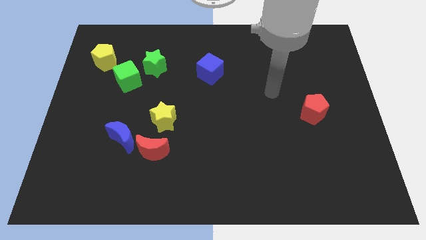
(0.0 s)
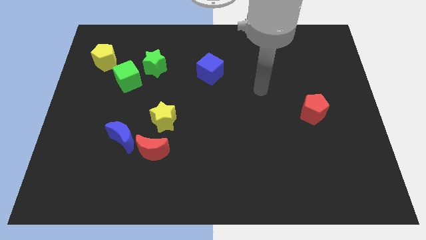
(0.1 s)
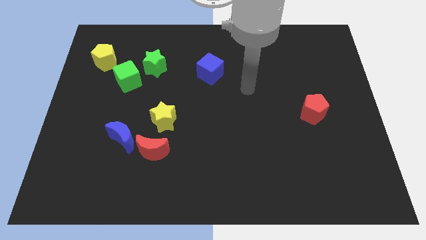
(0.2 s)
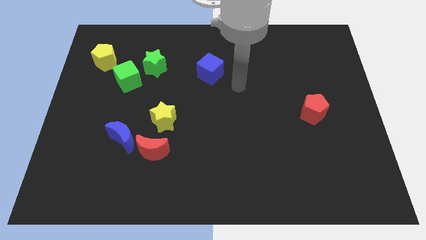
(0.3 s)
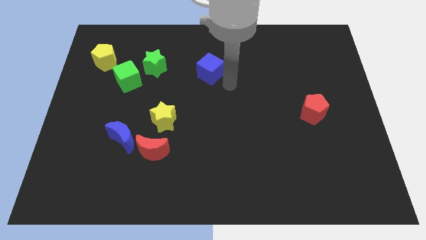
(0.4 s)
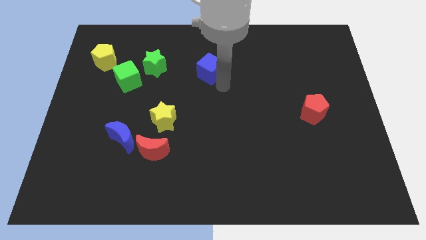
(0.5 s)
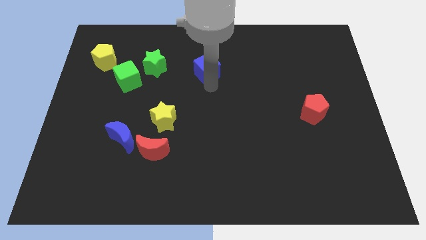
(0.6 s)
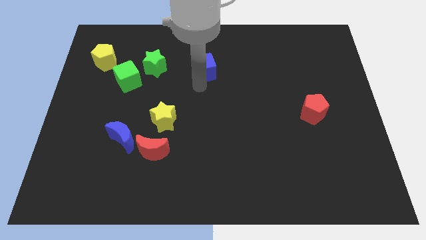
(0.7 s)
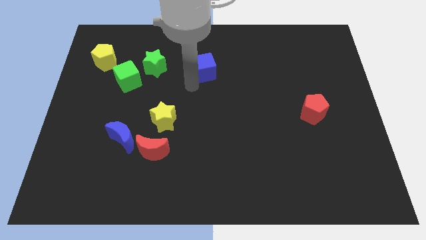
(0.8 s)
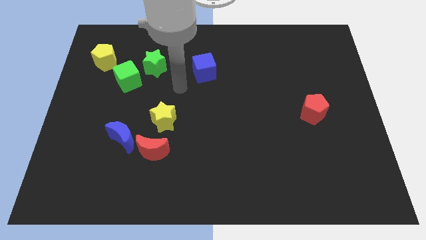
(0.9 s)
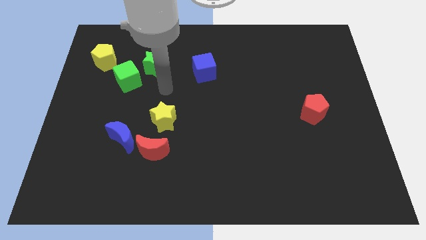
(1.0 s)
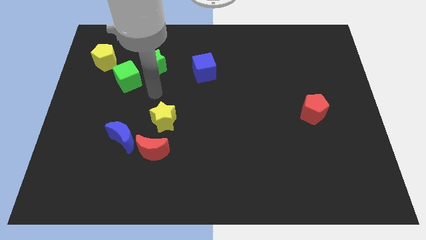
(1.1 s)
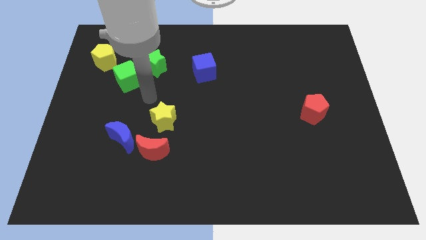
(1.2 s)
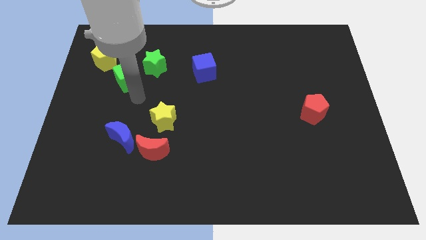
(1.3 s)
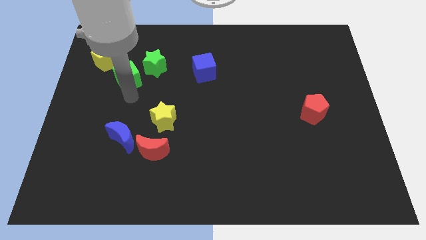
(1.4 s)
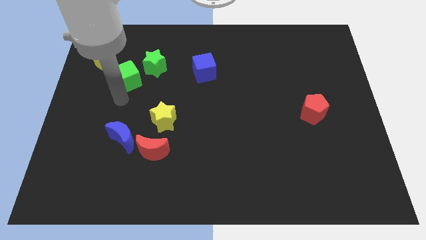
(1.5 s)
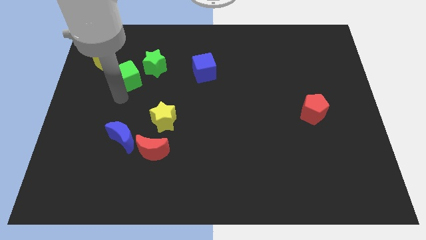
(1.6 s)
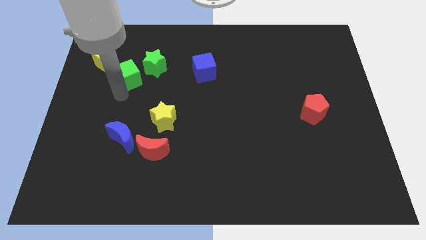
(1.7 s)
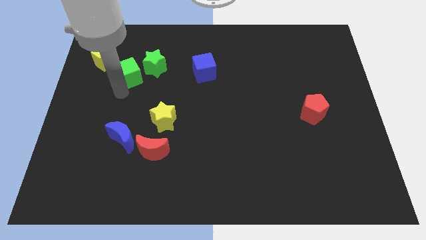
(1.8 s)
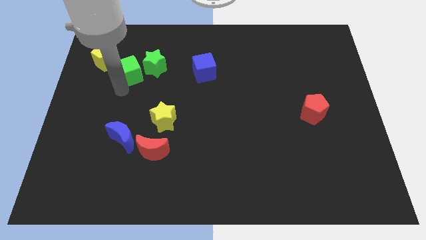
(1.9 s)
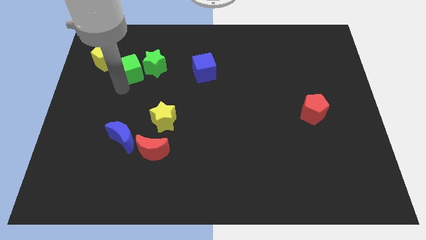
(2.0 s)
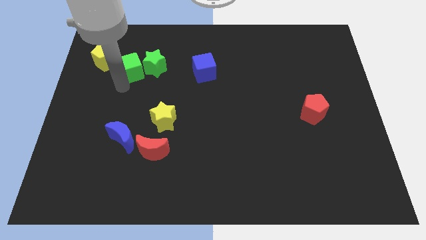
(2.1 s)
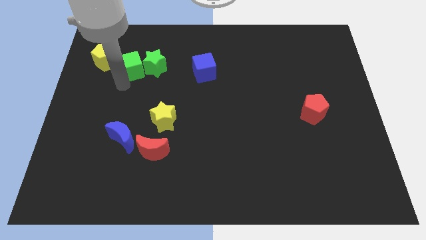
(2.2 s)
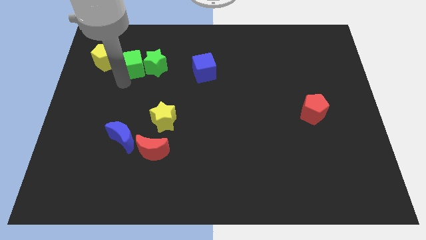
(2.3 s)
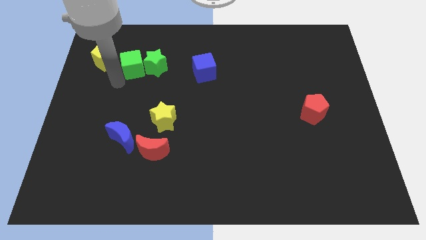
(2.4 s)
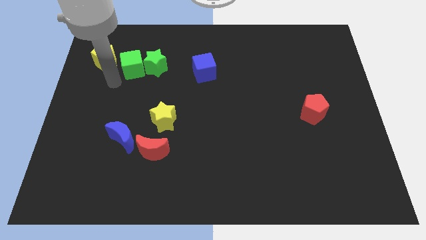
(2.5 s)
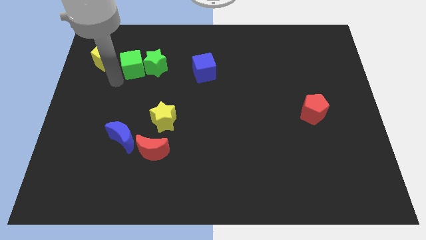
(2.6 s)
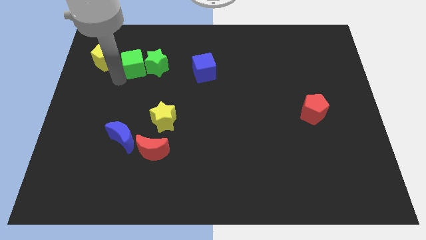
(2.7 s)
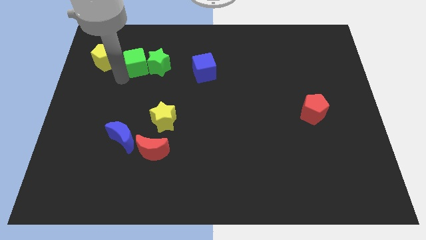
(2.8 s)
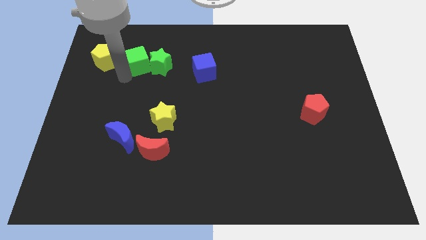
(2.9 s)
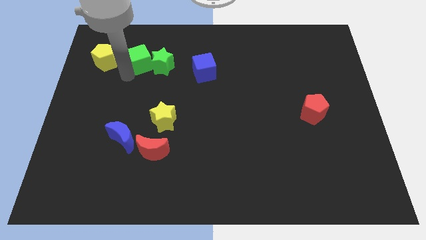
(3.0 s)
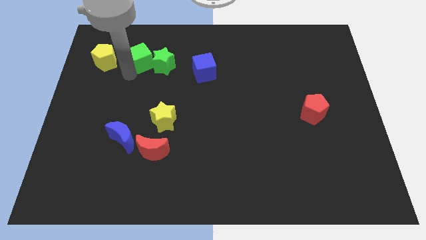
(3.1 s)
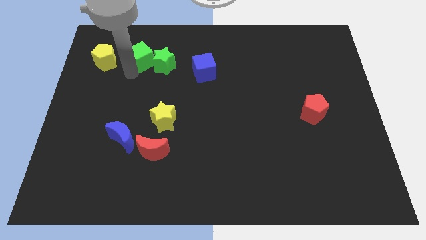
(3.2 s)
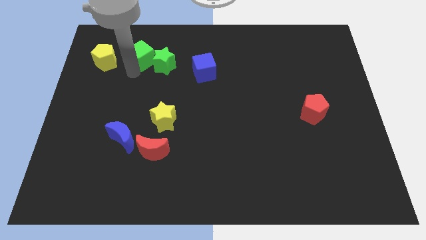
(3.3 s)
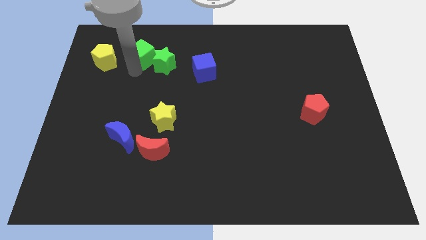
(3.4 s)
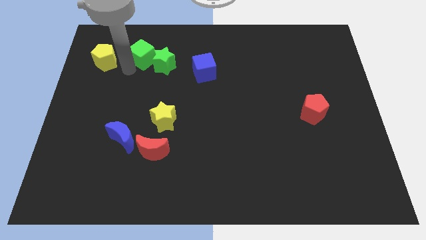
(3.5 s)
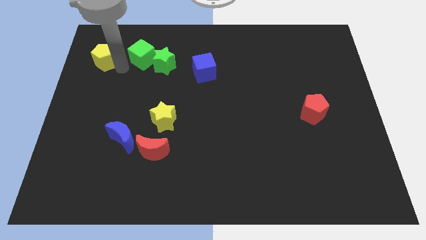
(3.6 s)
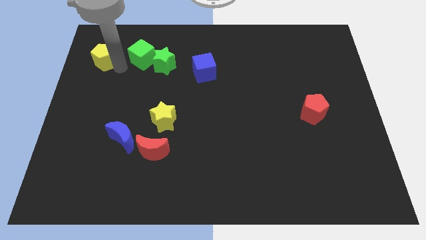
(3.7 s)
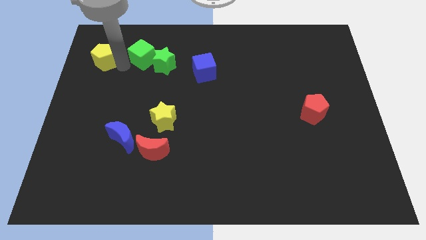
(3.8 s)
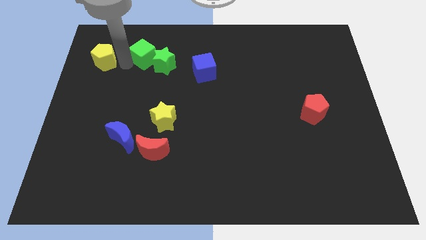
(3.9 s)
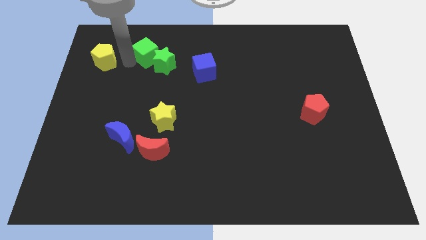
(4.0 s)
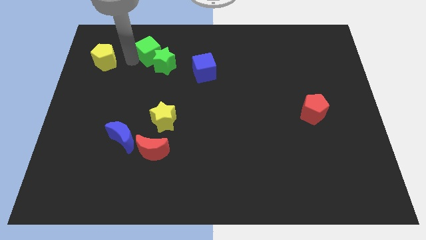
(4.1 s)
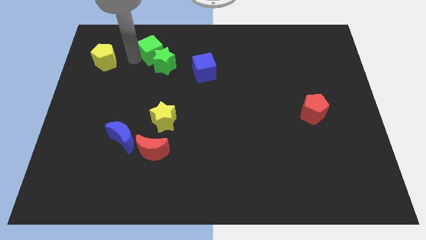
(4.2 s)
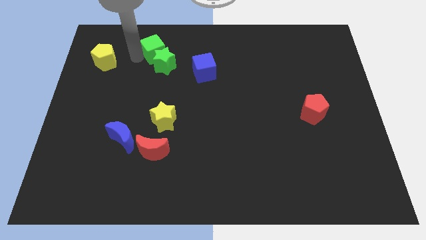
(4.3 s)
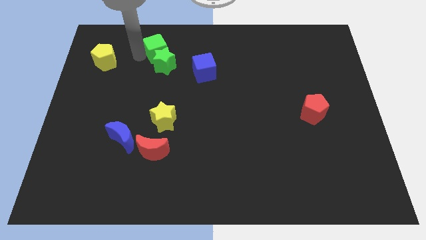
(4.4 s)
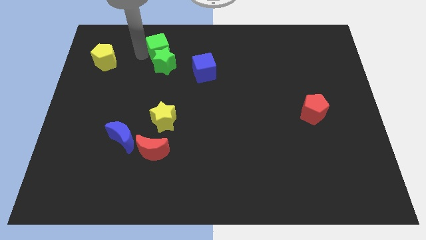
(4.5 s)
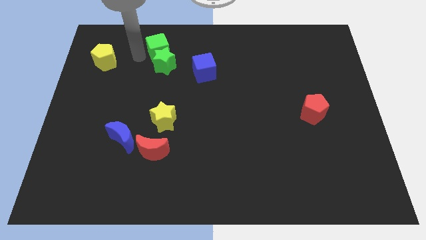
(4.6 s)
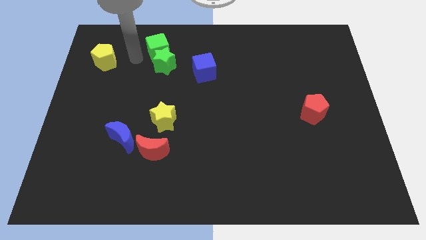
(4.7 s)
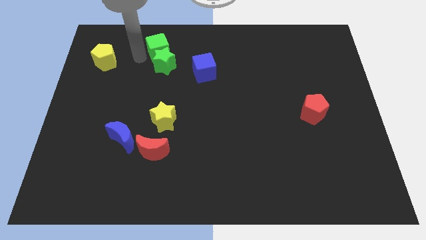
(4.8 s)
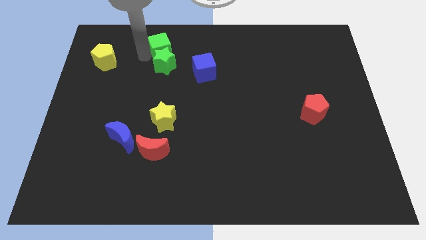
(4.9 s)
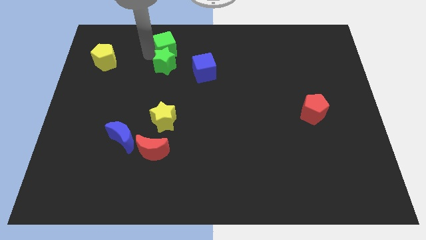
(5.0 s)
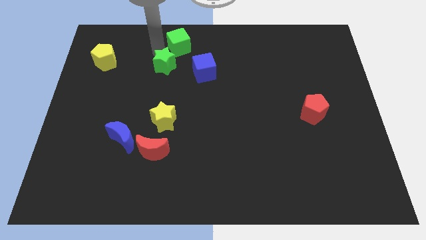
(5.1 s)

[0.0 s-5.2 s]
slide the green cube to the top

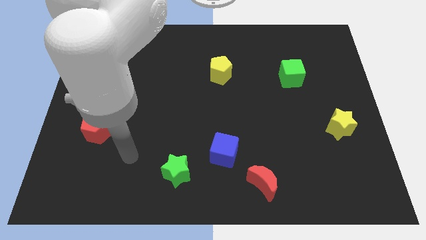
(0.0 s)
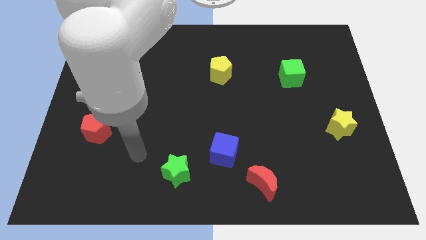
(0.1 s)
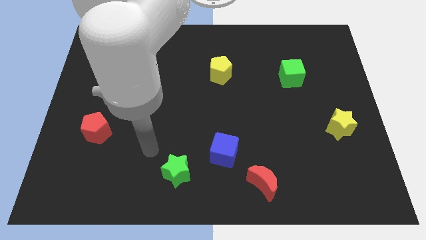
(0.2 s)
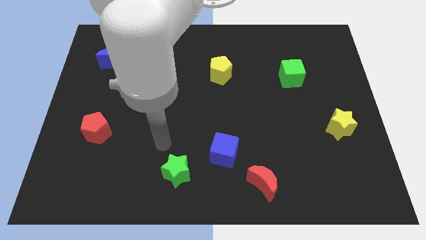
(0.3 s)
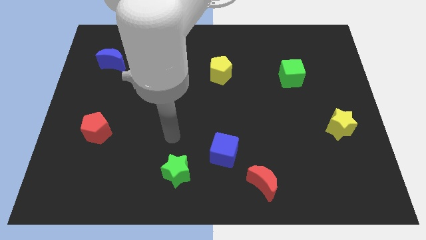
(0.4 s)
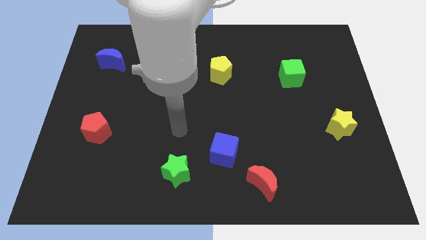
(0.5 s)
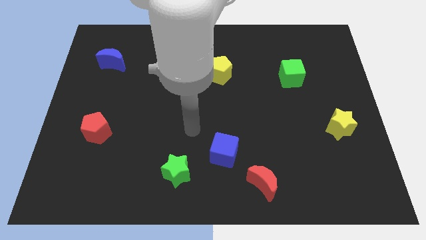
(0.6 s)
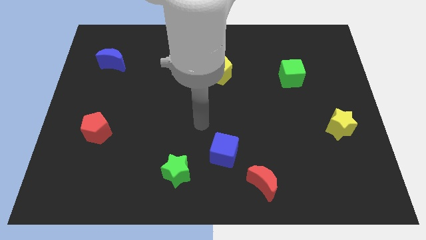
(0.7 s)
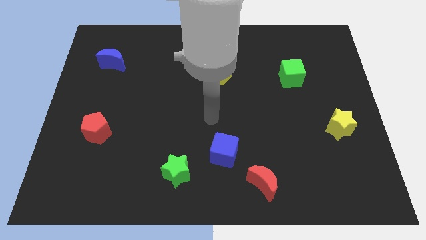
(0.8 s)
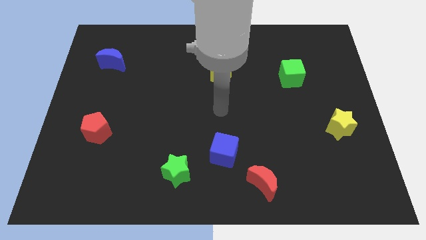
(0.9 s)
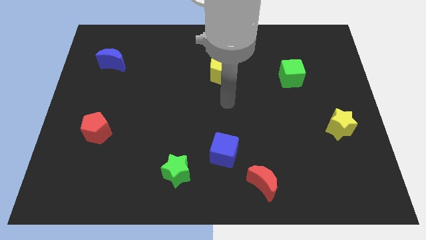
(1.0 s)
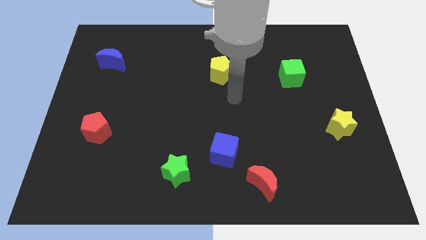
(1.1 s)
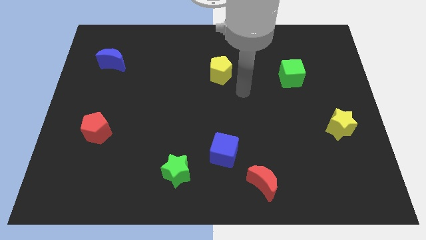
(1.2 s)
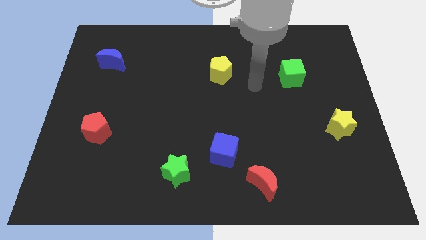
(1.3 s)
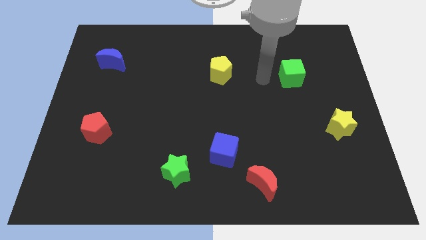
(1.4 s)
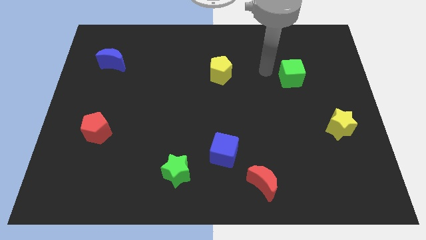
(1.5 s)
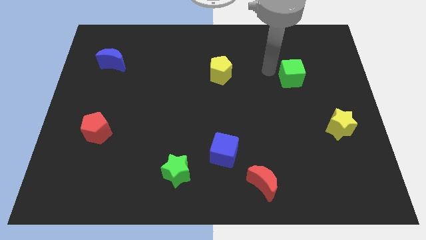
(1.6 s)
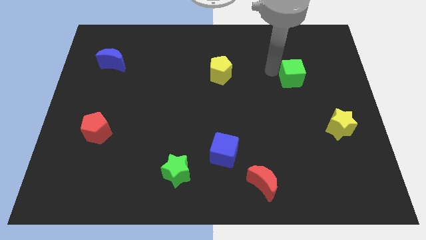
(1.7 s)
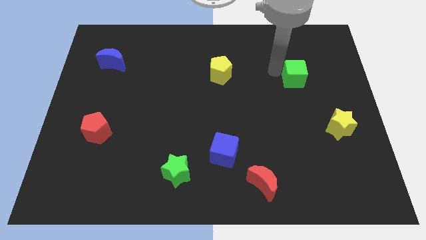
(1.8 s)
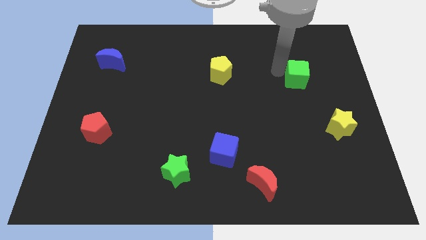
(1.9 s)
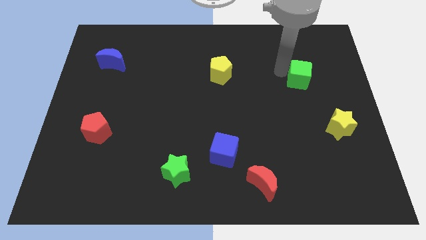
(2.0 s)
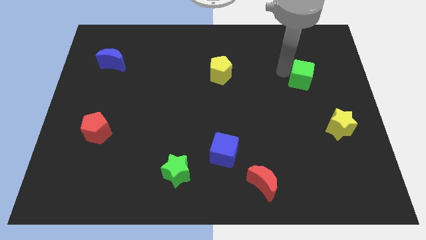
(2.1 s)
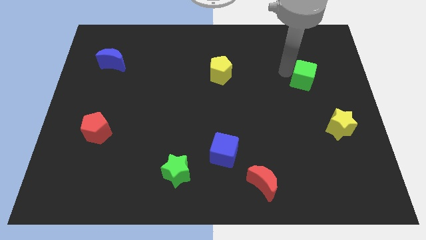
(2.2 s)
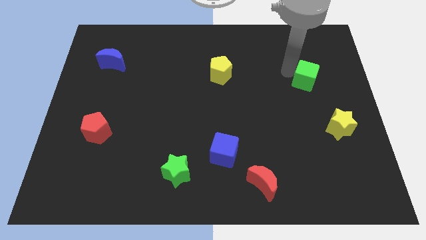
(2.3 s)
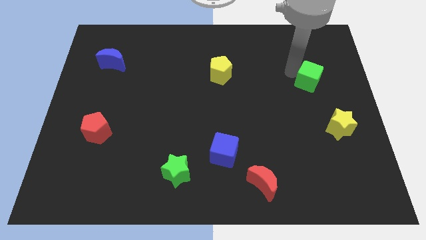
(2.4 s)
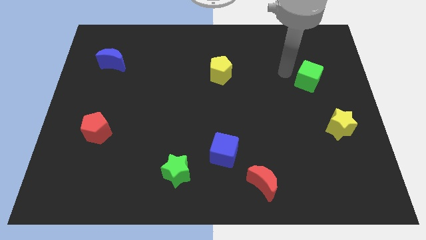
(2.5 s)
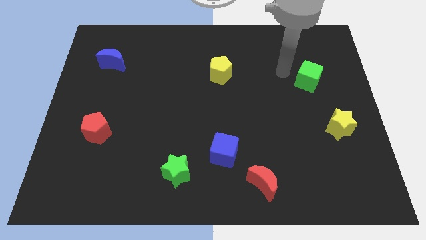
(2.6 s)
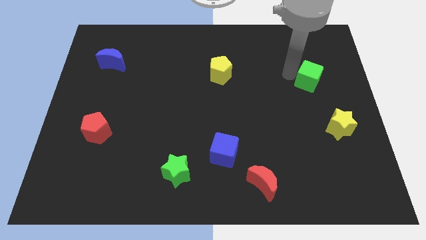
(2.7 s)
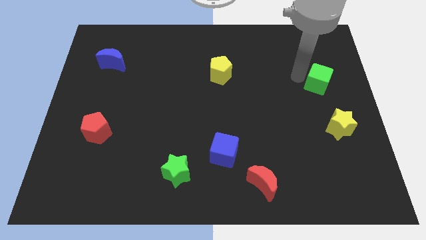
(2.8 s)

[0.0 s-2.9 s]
move the green cube to the right side
